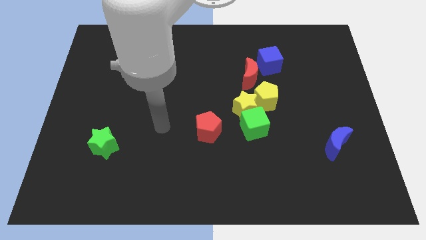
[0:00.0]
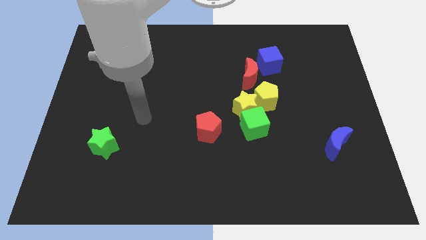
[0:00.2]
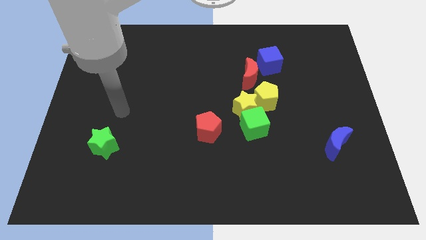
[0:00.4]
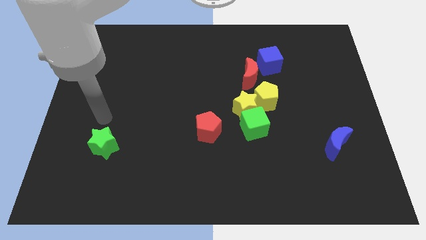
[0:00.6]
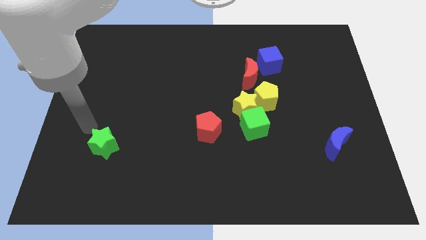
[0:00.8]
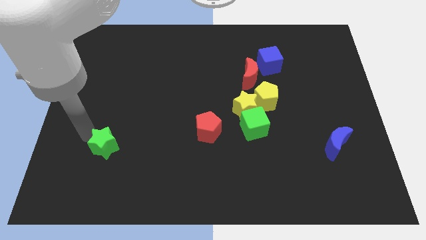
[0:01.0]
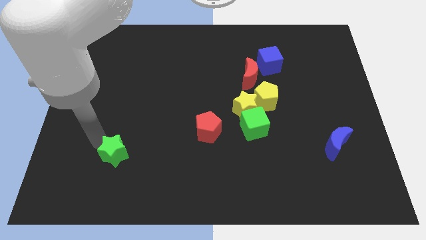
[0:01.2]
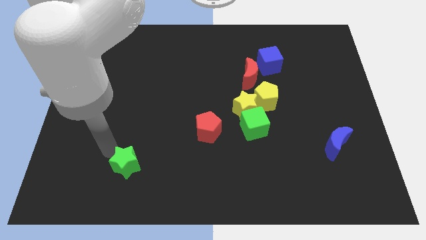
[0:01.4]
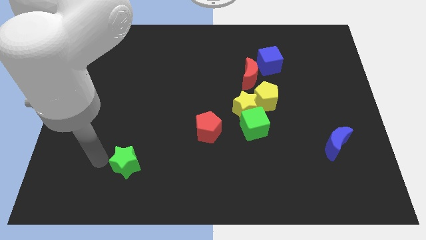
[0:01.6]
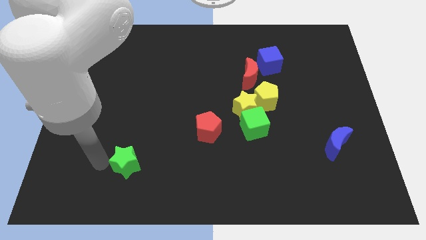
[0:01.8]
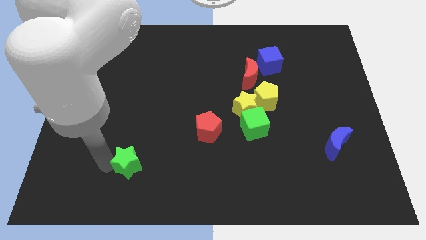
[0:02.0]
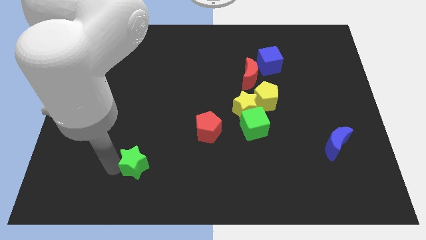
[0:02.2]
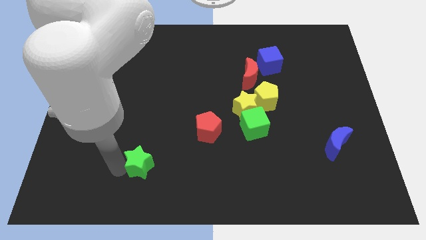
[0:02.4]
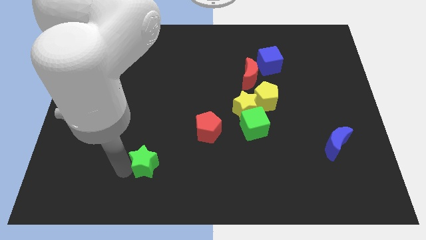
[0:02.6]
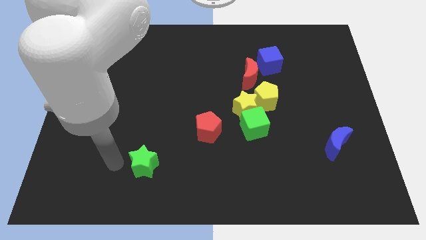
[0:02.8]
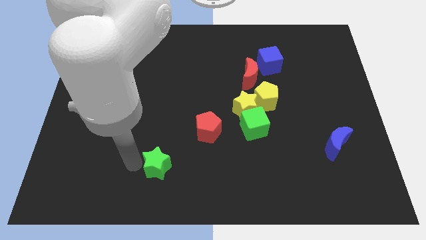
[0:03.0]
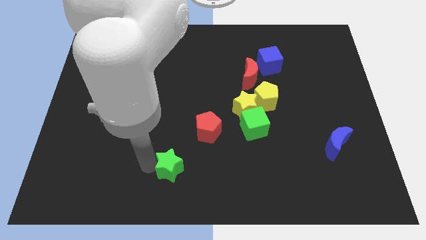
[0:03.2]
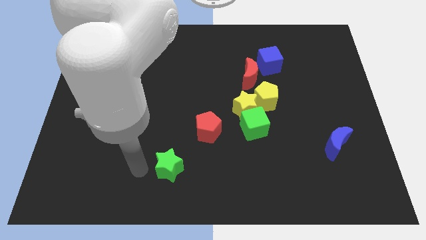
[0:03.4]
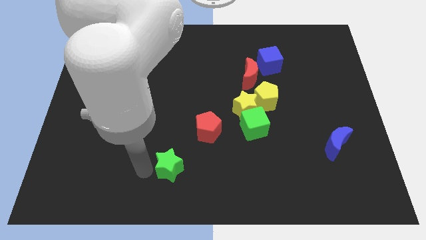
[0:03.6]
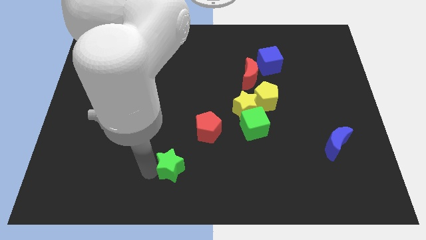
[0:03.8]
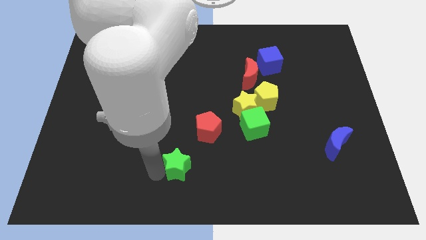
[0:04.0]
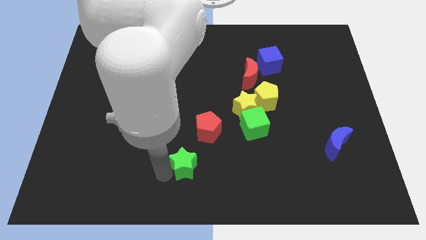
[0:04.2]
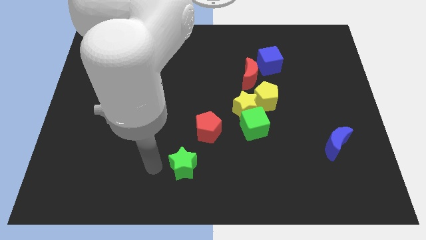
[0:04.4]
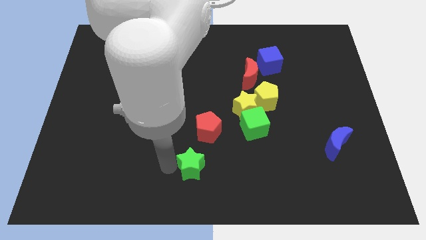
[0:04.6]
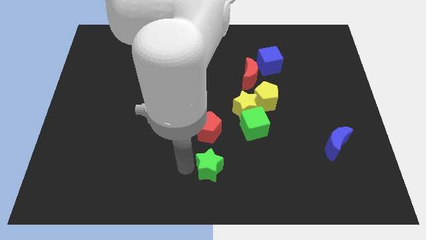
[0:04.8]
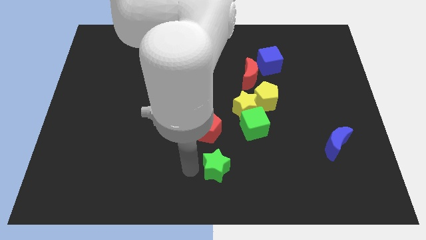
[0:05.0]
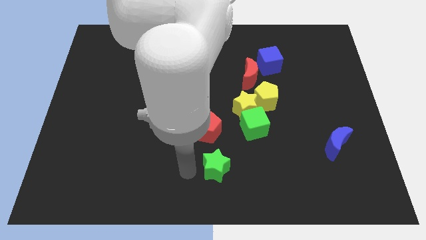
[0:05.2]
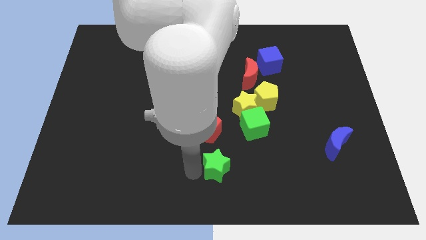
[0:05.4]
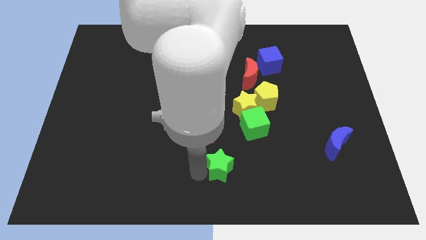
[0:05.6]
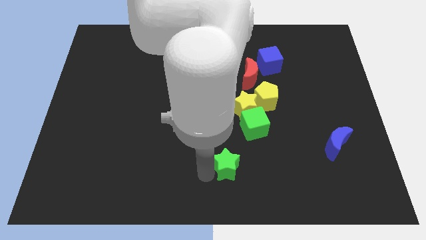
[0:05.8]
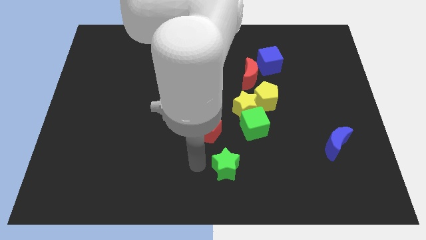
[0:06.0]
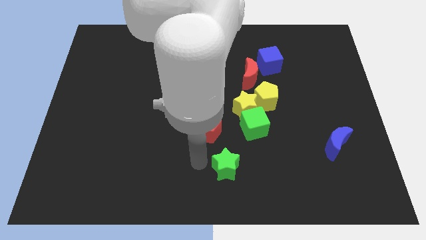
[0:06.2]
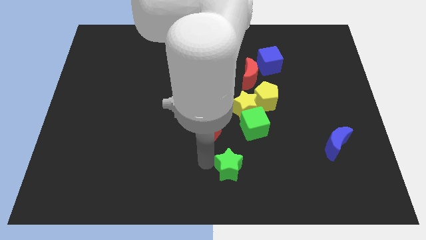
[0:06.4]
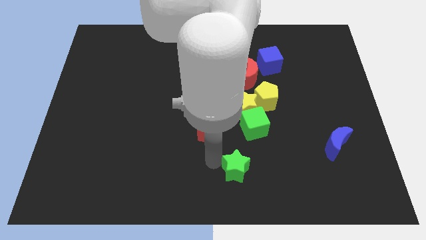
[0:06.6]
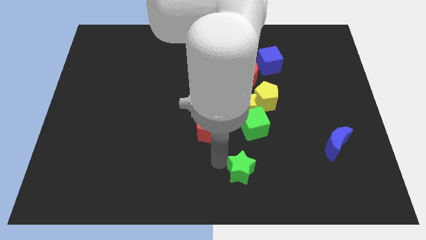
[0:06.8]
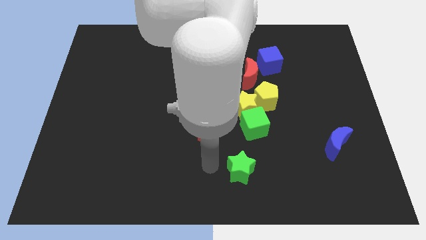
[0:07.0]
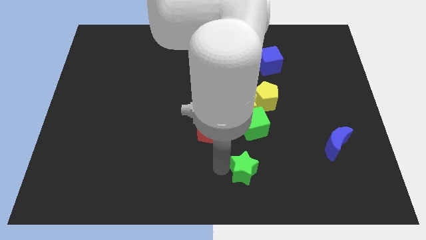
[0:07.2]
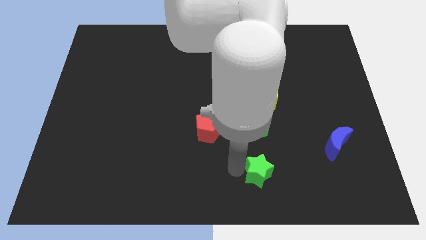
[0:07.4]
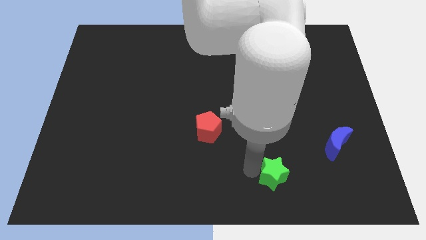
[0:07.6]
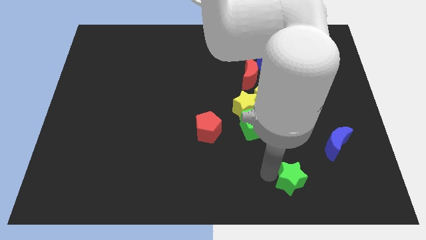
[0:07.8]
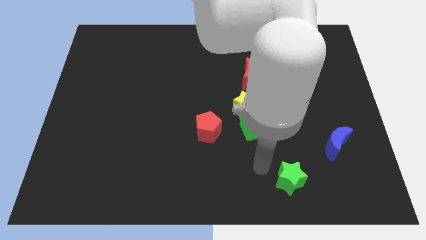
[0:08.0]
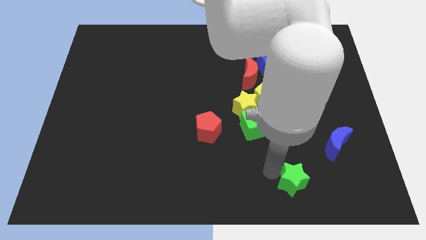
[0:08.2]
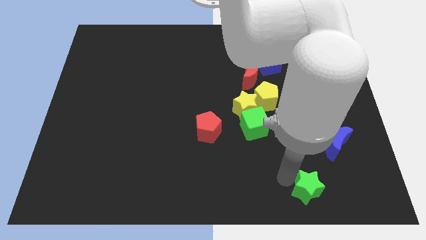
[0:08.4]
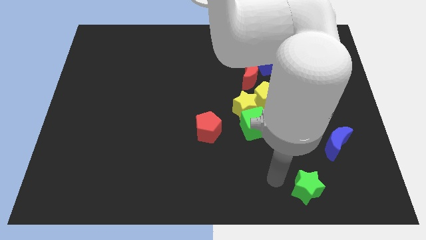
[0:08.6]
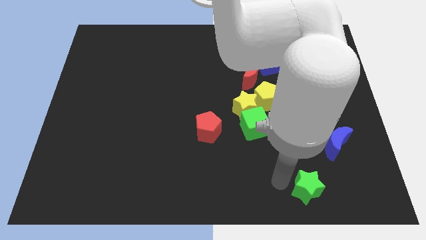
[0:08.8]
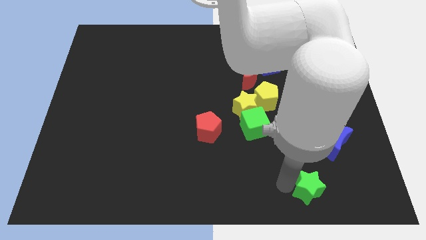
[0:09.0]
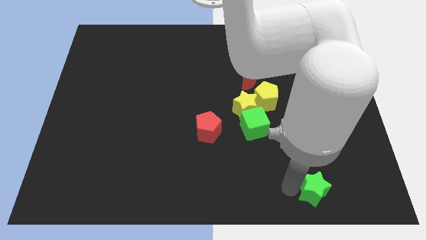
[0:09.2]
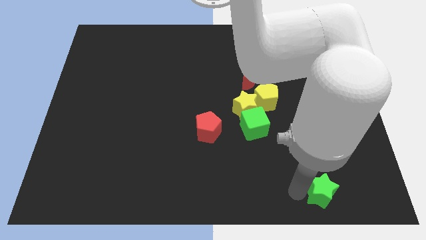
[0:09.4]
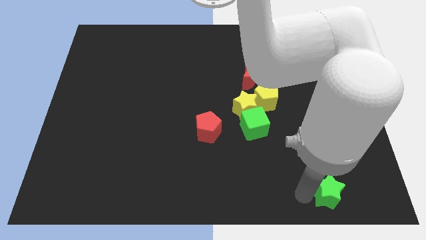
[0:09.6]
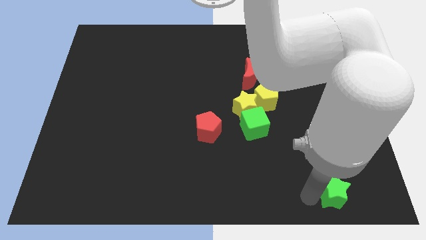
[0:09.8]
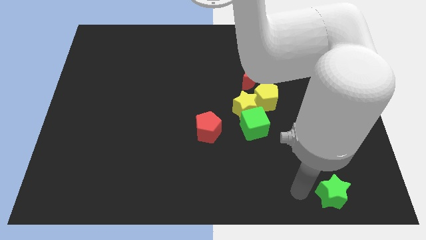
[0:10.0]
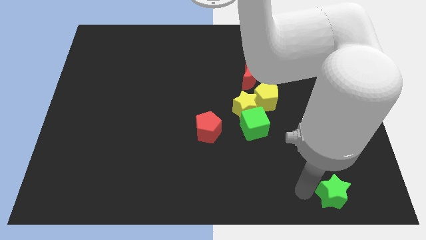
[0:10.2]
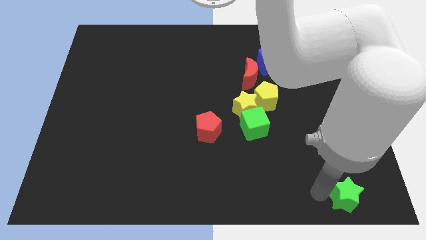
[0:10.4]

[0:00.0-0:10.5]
move the green star to the bottom right corner

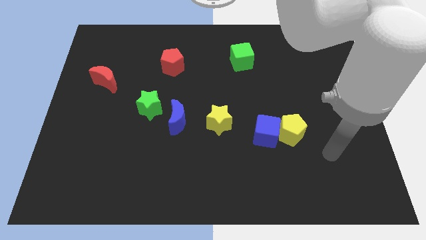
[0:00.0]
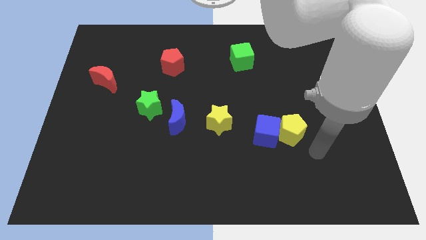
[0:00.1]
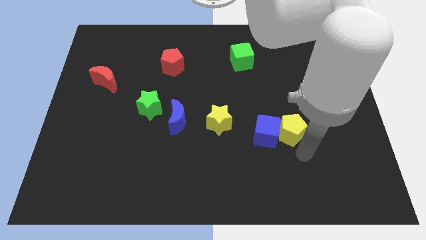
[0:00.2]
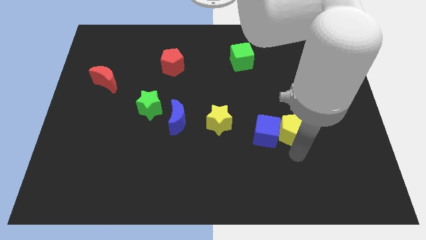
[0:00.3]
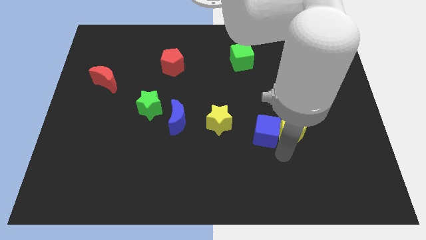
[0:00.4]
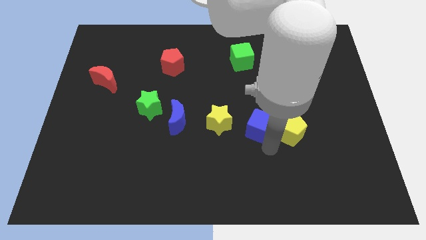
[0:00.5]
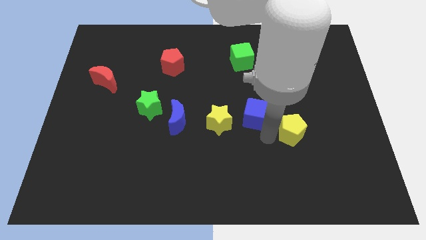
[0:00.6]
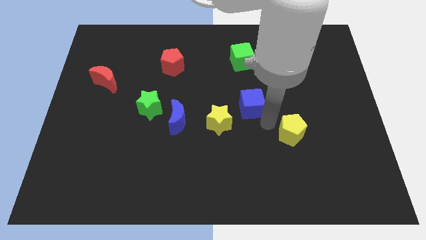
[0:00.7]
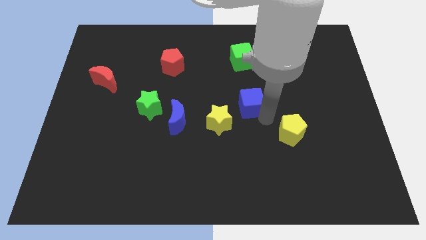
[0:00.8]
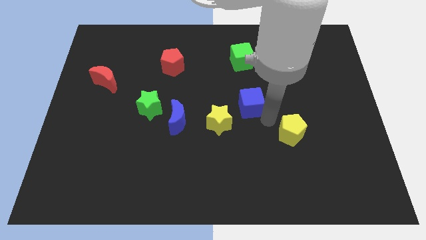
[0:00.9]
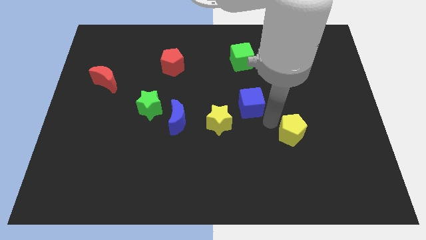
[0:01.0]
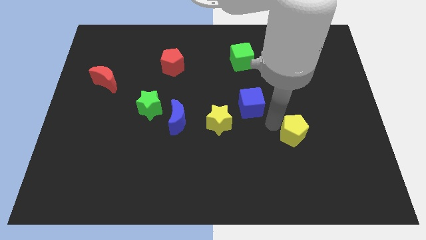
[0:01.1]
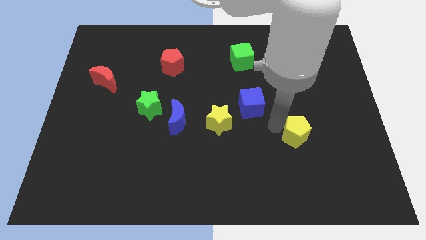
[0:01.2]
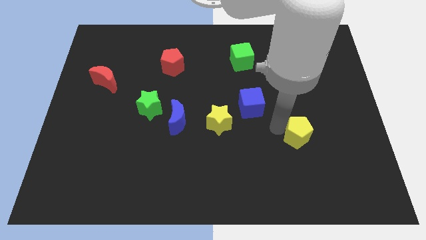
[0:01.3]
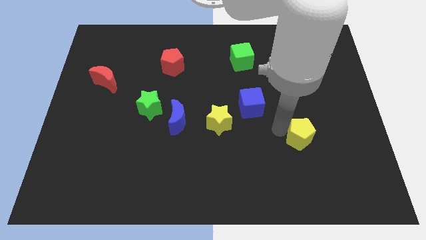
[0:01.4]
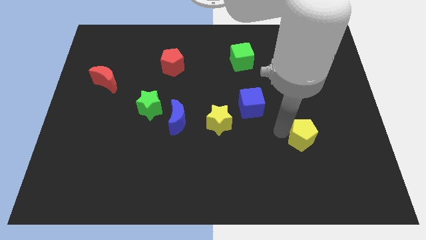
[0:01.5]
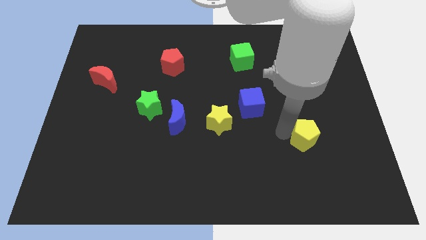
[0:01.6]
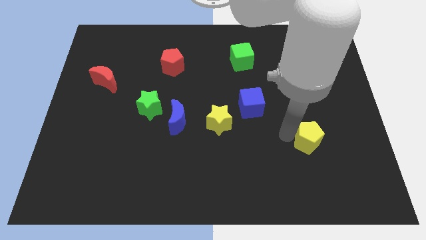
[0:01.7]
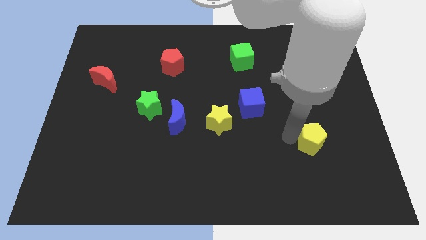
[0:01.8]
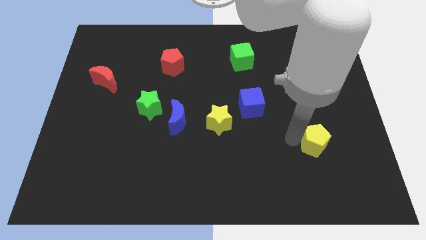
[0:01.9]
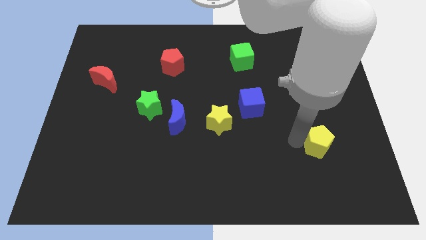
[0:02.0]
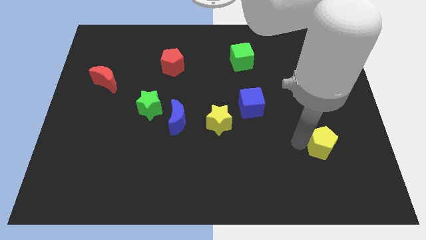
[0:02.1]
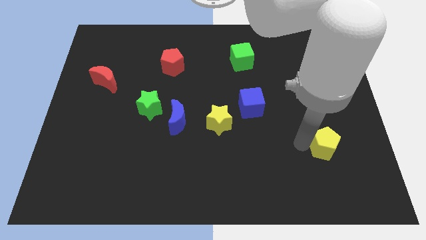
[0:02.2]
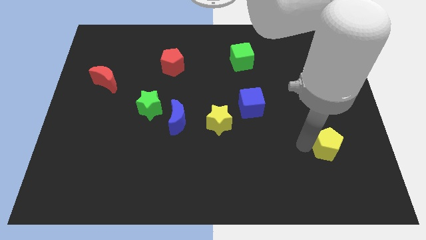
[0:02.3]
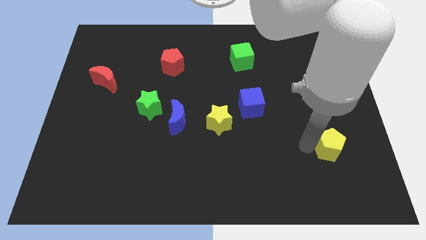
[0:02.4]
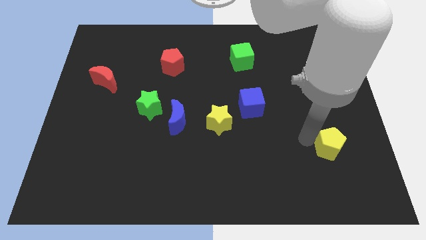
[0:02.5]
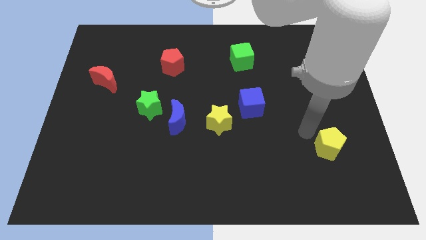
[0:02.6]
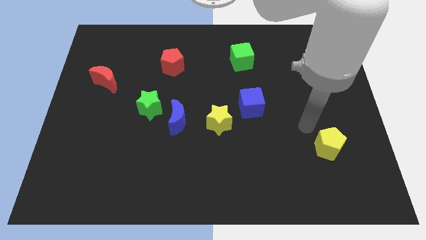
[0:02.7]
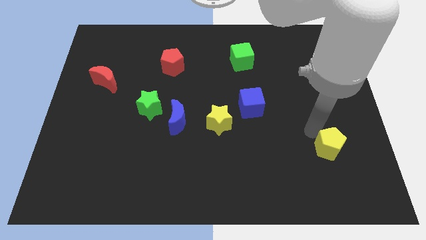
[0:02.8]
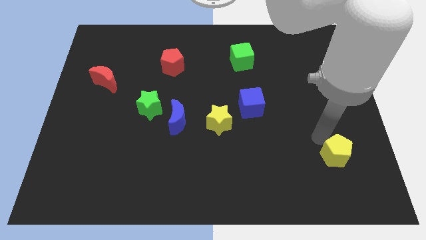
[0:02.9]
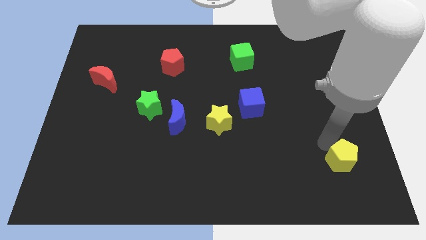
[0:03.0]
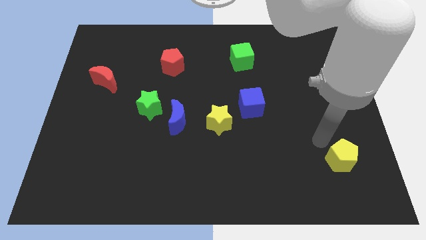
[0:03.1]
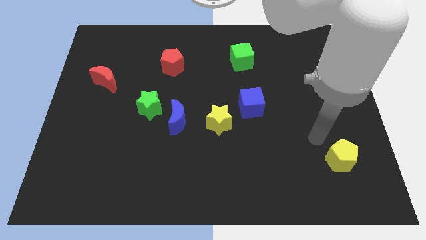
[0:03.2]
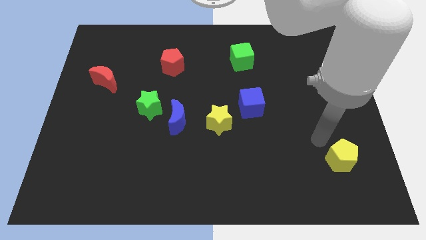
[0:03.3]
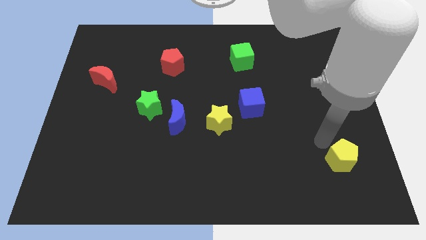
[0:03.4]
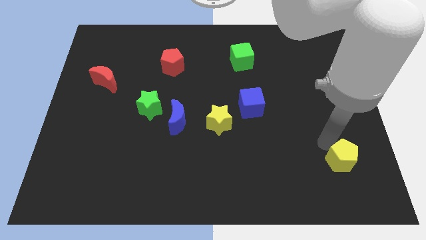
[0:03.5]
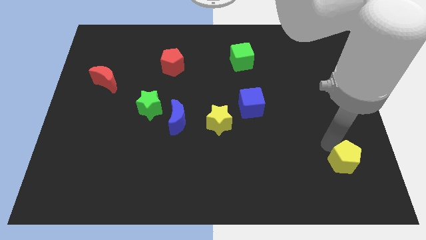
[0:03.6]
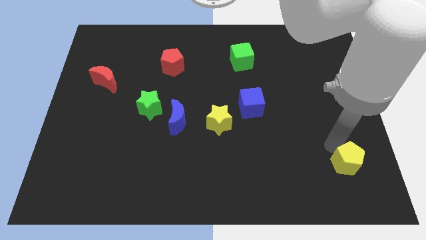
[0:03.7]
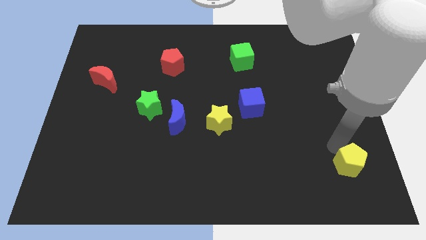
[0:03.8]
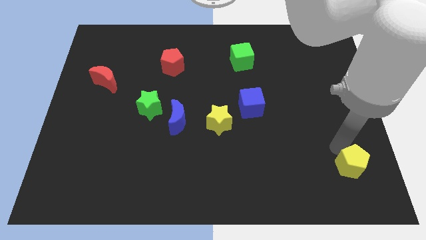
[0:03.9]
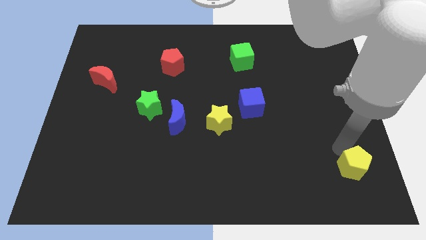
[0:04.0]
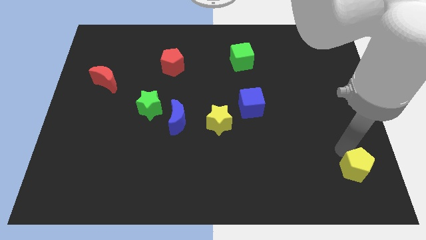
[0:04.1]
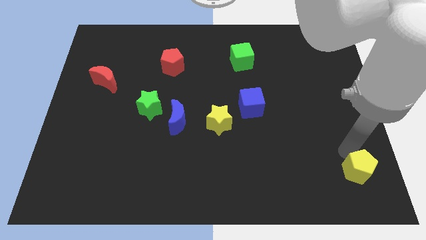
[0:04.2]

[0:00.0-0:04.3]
move the yellow pentagon to the lower right corner
